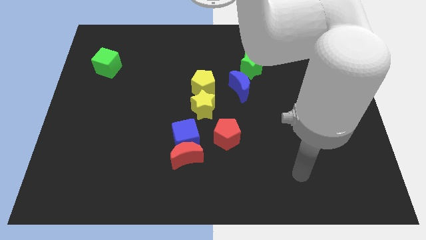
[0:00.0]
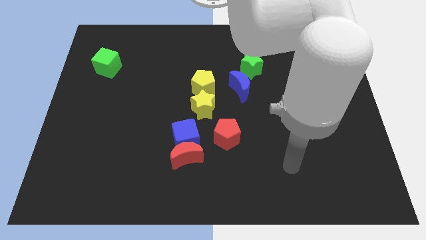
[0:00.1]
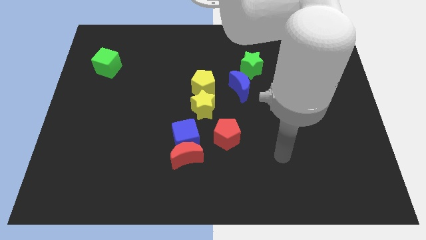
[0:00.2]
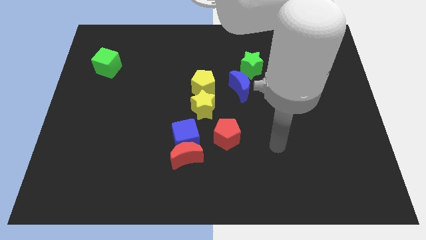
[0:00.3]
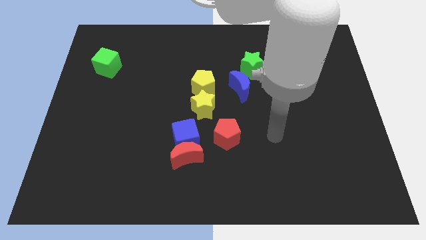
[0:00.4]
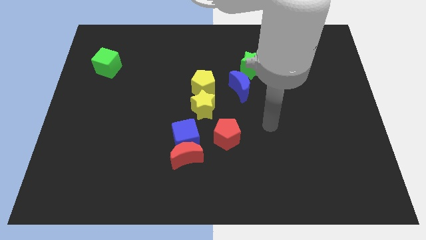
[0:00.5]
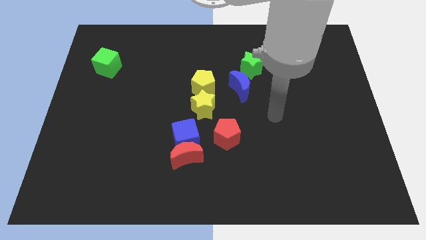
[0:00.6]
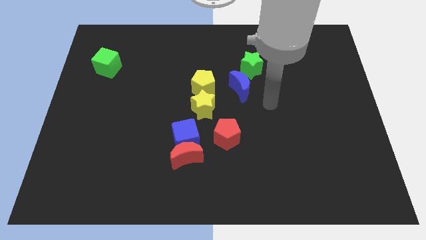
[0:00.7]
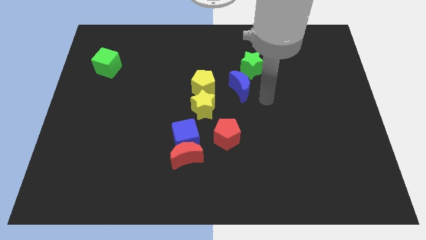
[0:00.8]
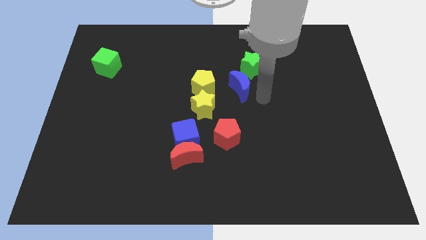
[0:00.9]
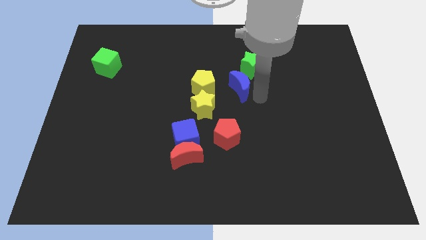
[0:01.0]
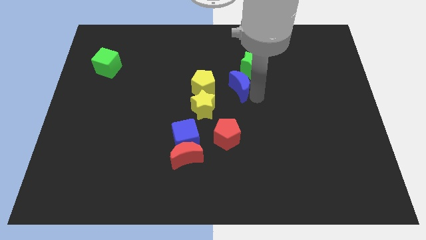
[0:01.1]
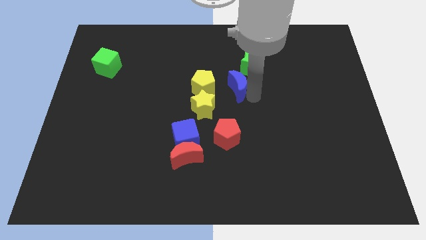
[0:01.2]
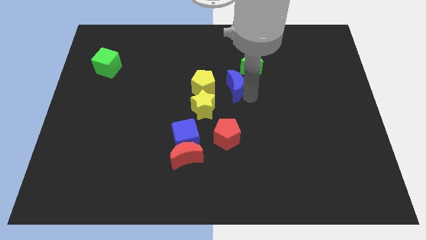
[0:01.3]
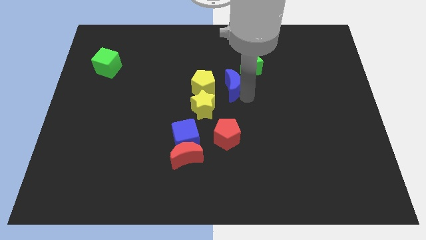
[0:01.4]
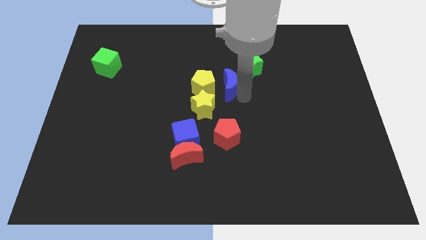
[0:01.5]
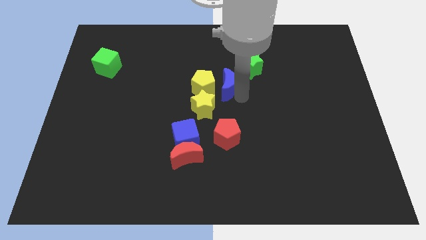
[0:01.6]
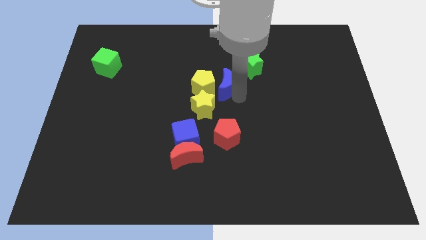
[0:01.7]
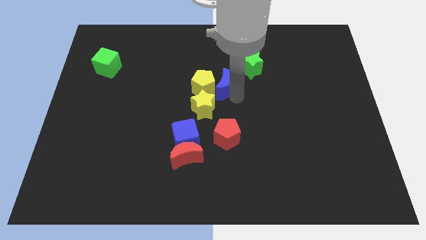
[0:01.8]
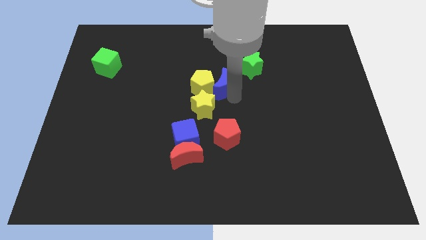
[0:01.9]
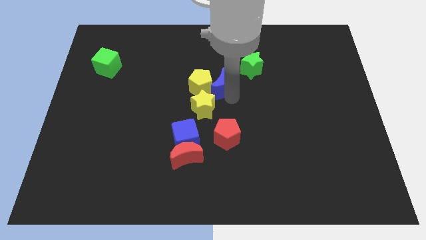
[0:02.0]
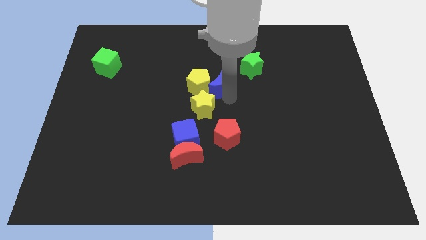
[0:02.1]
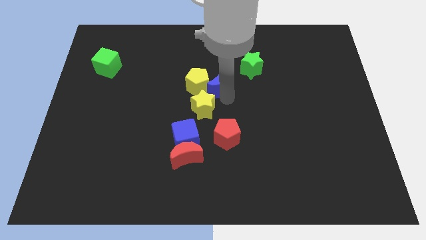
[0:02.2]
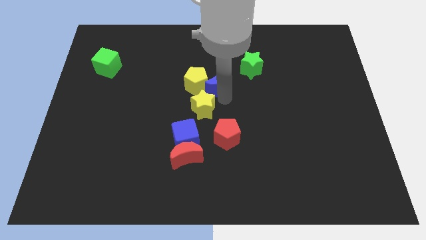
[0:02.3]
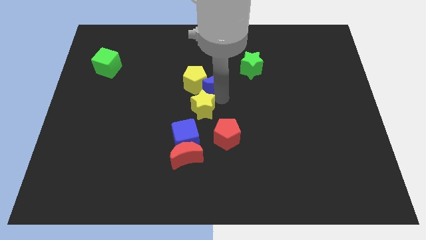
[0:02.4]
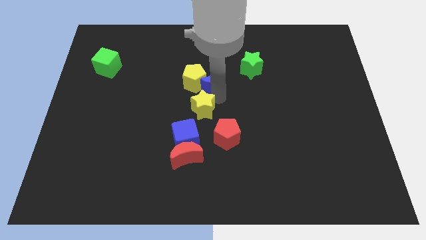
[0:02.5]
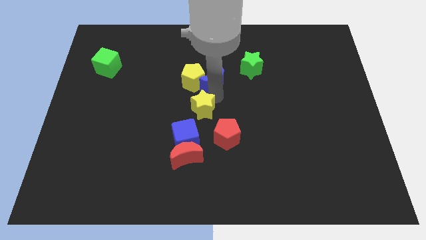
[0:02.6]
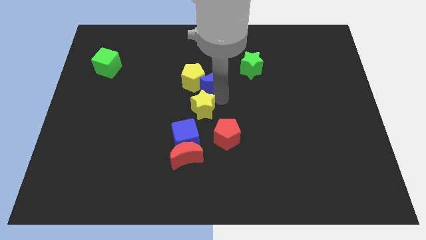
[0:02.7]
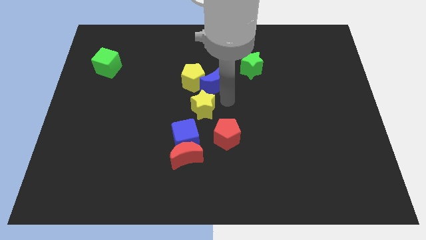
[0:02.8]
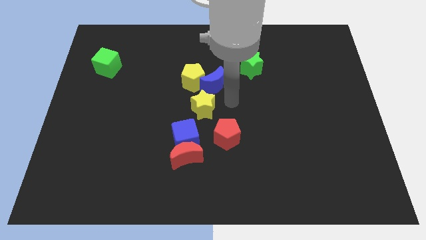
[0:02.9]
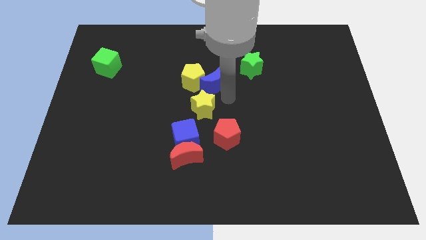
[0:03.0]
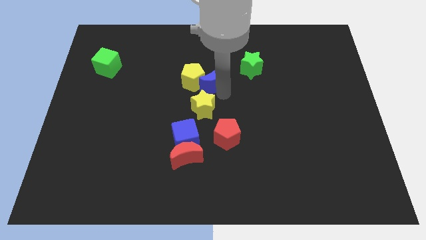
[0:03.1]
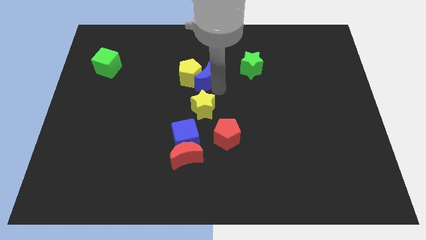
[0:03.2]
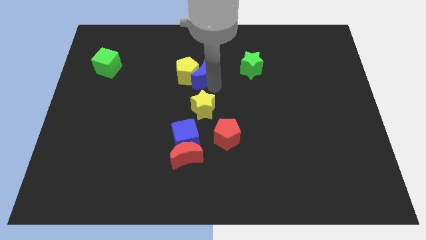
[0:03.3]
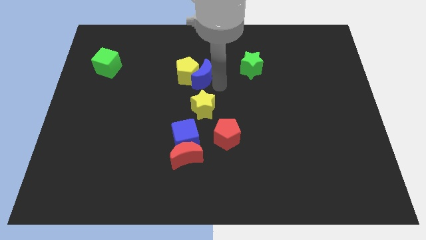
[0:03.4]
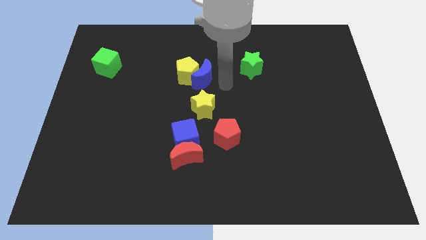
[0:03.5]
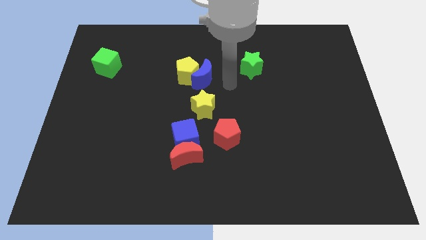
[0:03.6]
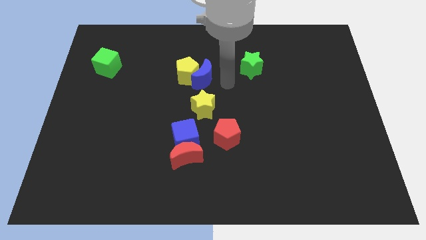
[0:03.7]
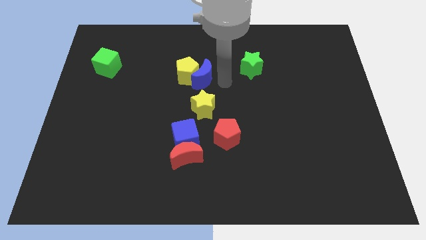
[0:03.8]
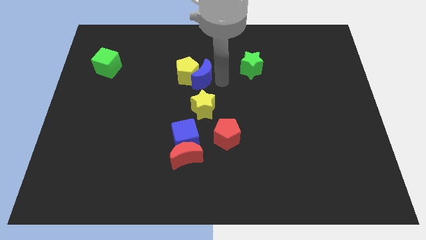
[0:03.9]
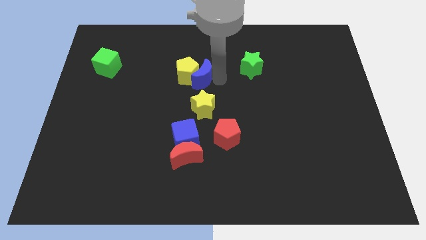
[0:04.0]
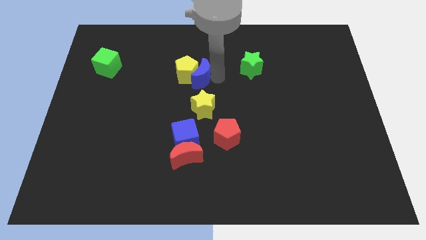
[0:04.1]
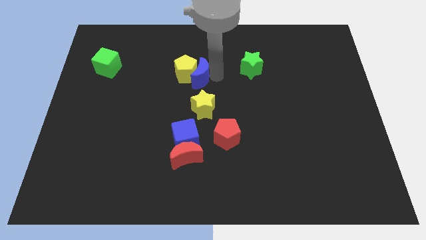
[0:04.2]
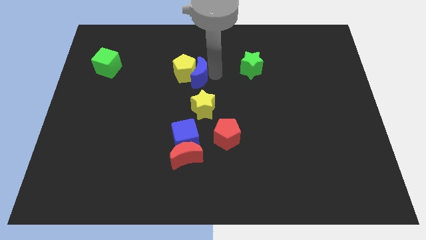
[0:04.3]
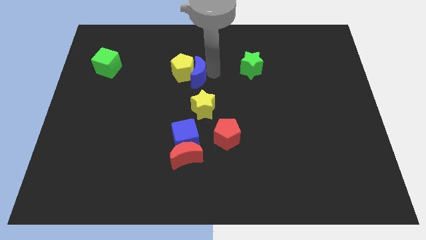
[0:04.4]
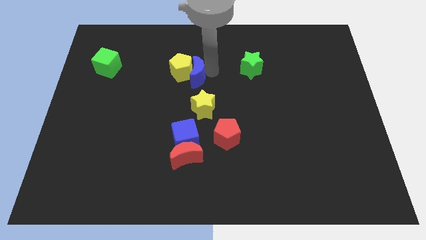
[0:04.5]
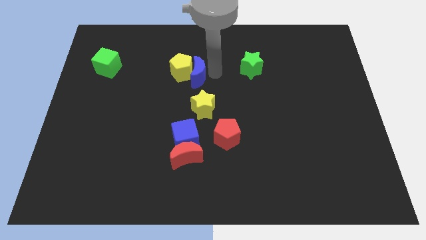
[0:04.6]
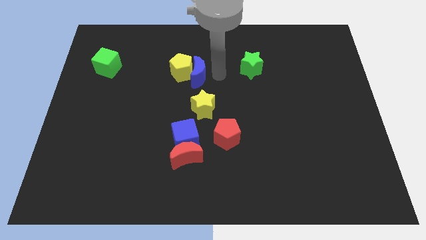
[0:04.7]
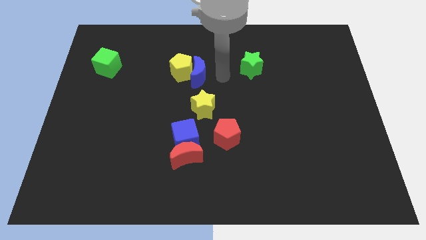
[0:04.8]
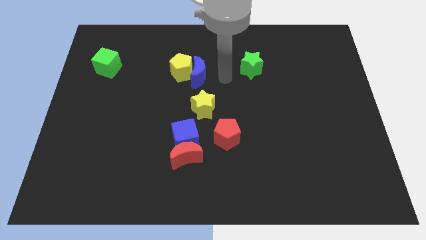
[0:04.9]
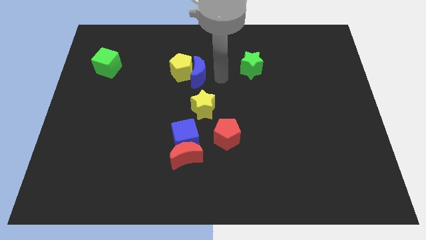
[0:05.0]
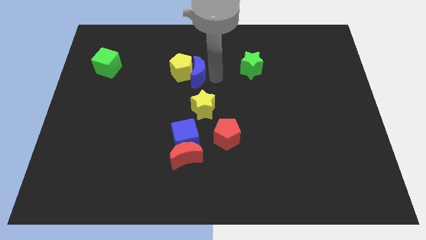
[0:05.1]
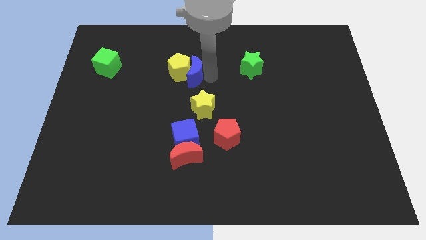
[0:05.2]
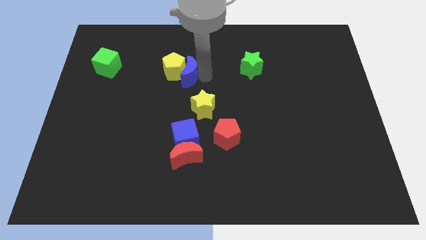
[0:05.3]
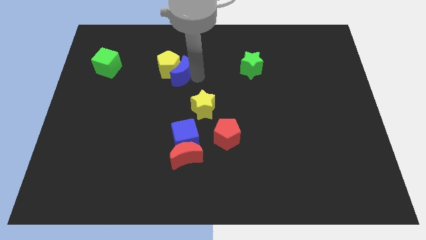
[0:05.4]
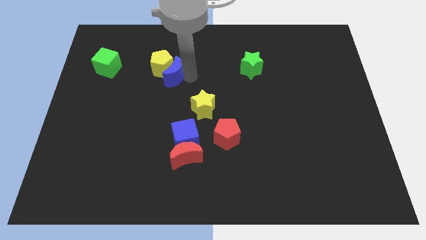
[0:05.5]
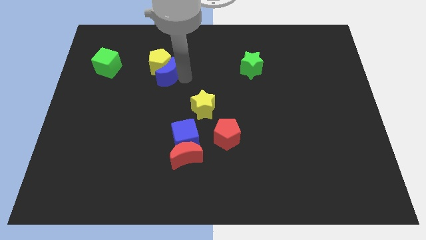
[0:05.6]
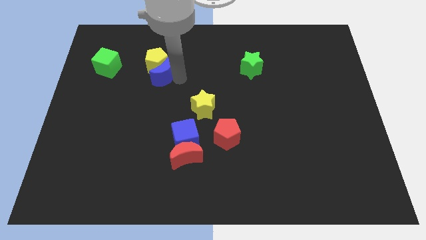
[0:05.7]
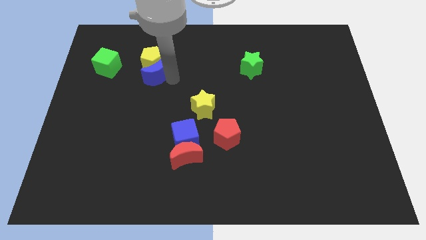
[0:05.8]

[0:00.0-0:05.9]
move the blue moon to the right of the green cube

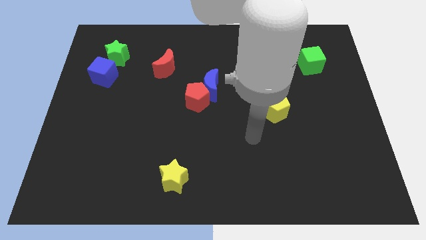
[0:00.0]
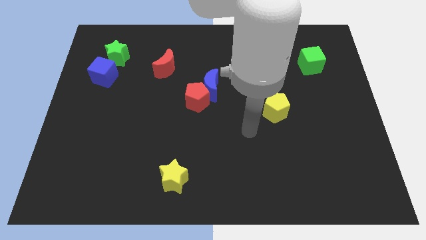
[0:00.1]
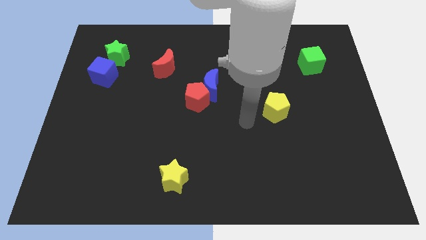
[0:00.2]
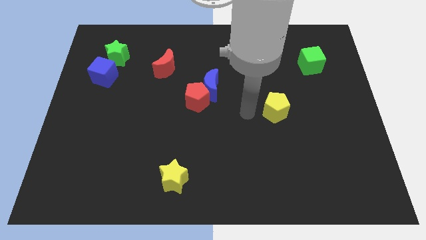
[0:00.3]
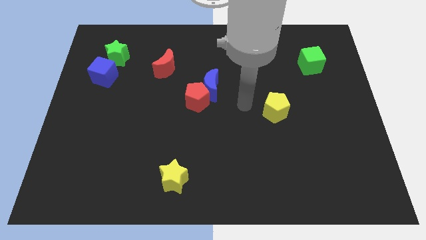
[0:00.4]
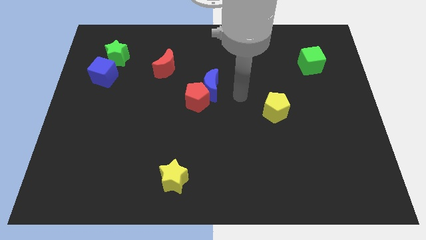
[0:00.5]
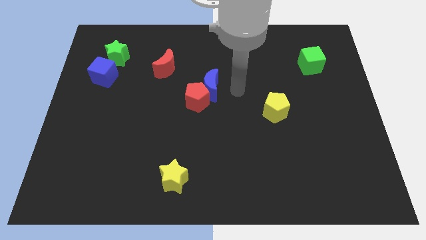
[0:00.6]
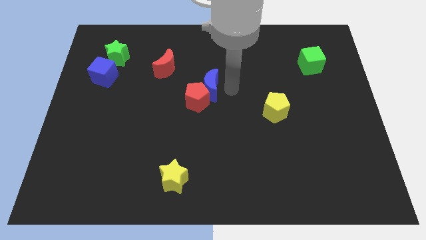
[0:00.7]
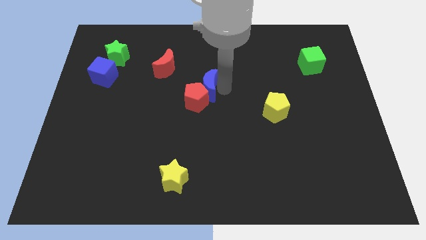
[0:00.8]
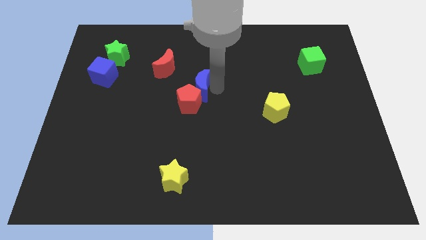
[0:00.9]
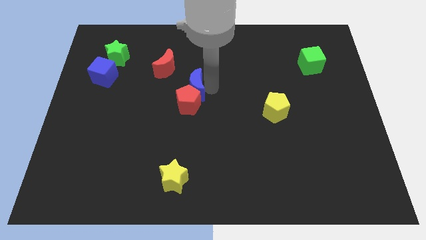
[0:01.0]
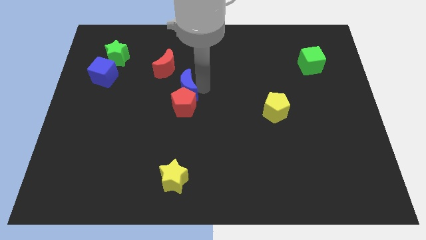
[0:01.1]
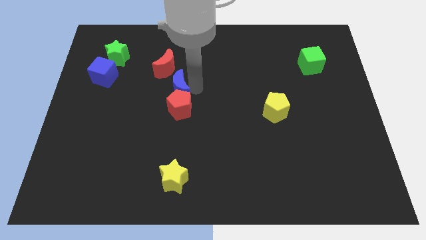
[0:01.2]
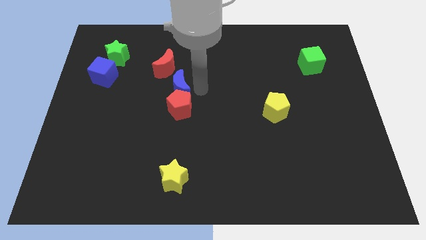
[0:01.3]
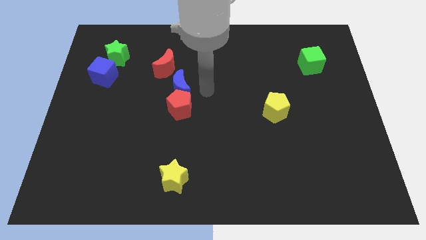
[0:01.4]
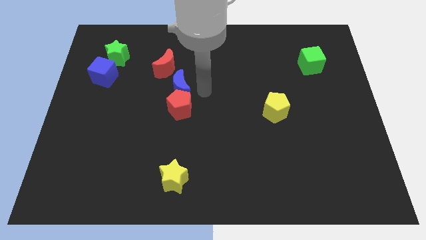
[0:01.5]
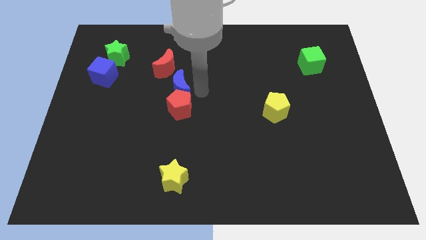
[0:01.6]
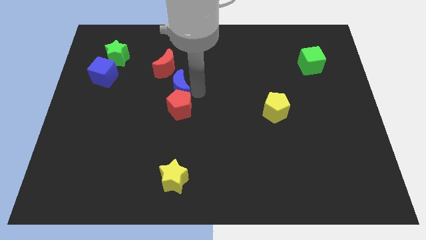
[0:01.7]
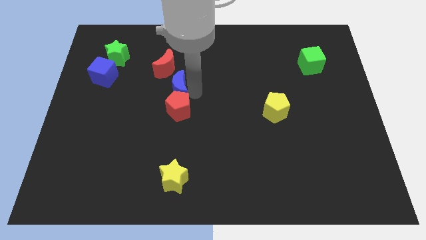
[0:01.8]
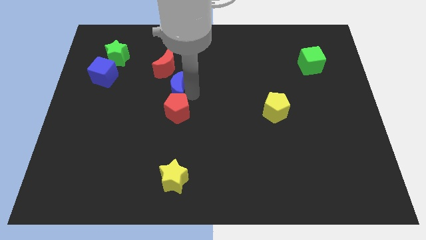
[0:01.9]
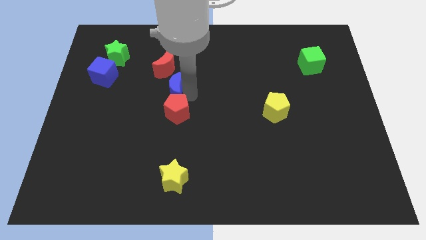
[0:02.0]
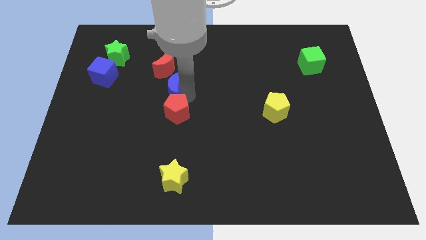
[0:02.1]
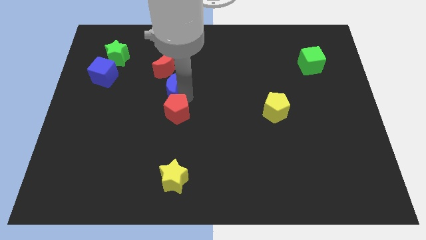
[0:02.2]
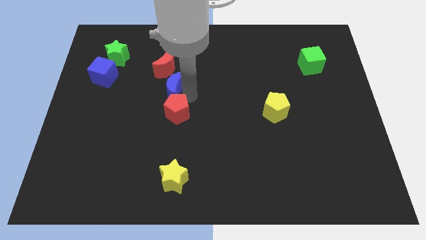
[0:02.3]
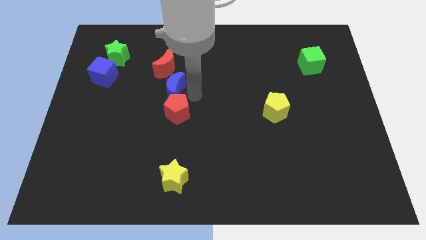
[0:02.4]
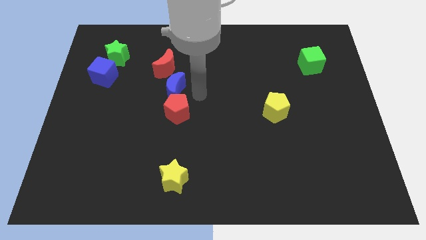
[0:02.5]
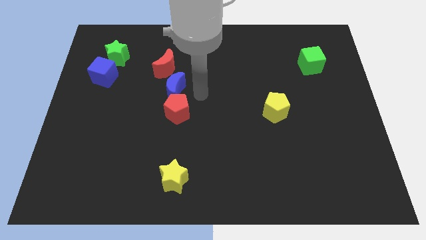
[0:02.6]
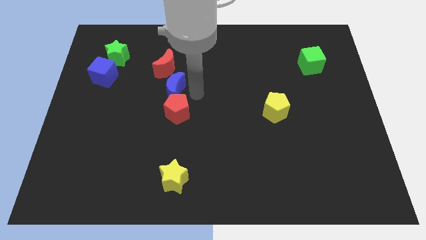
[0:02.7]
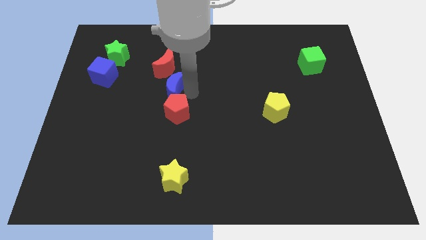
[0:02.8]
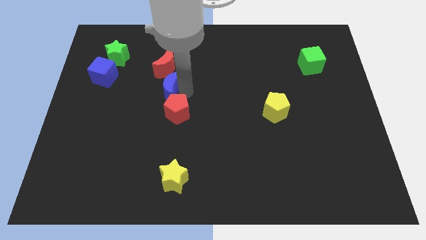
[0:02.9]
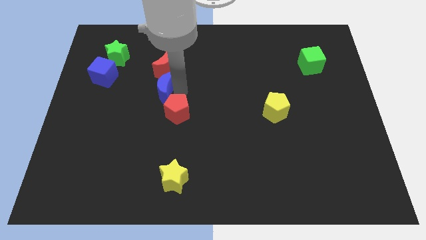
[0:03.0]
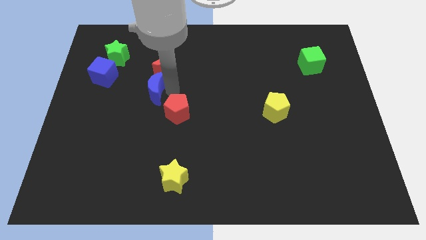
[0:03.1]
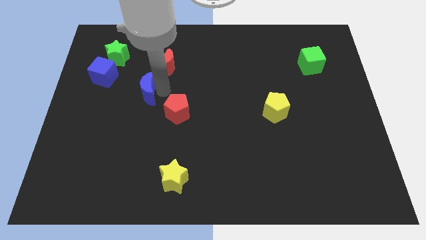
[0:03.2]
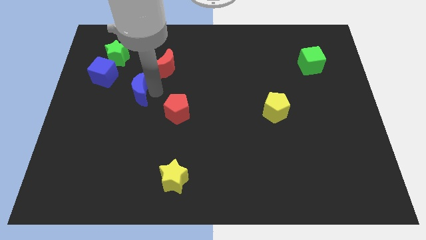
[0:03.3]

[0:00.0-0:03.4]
push the blue moon to the bottom right side of the blue cube
